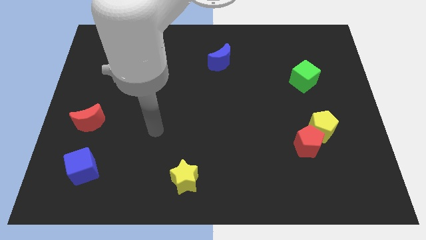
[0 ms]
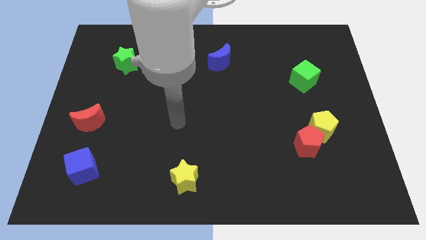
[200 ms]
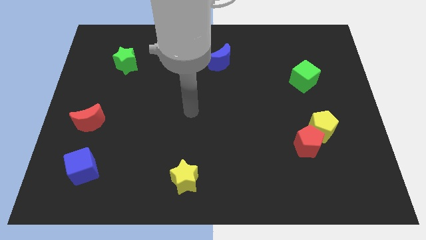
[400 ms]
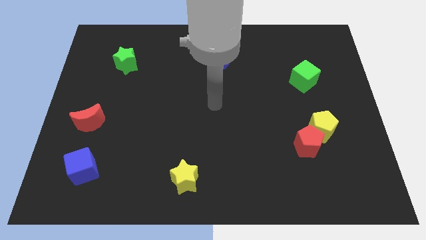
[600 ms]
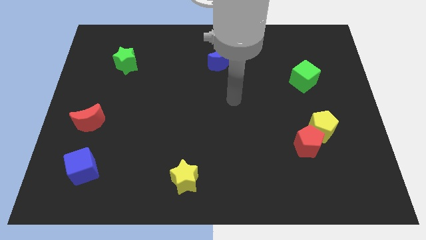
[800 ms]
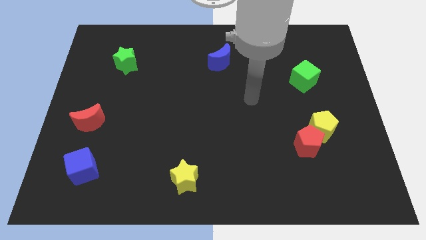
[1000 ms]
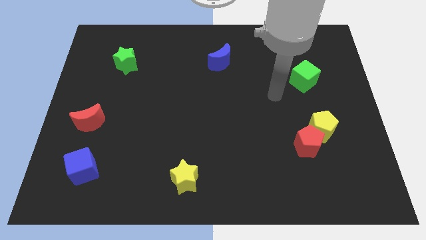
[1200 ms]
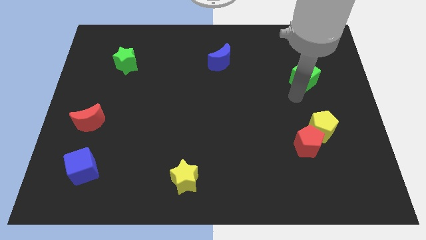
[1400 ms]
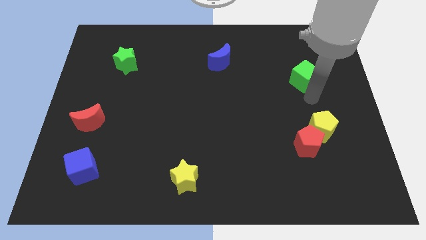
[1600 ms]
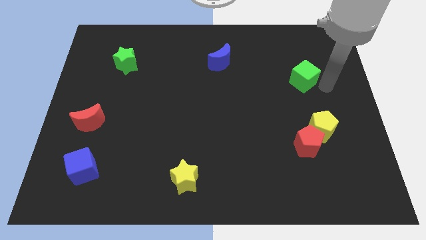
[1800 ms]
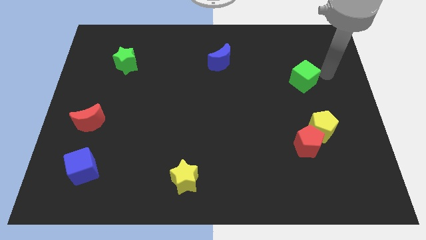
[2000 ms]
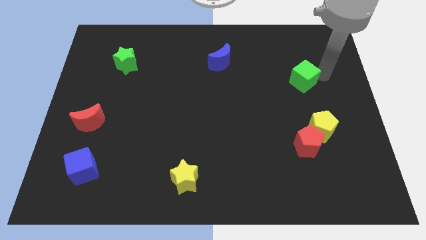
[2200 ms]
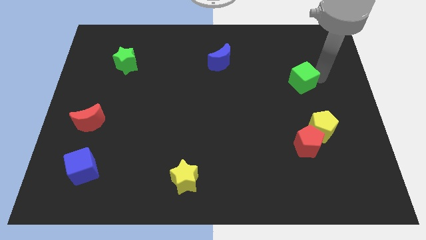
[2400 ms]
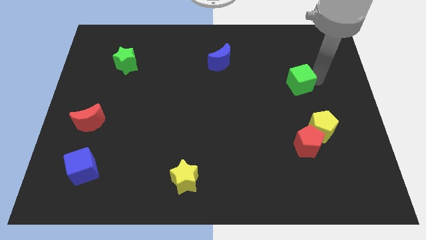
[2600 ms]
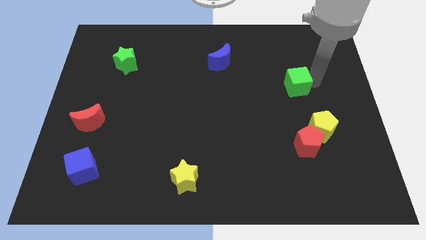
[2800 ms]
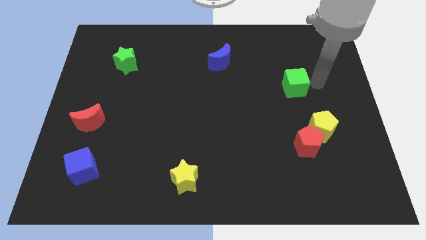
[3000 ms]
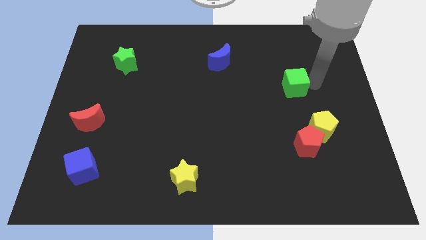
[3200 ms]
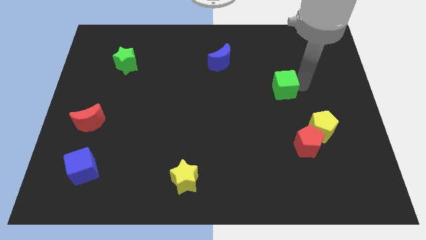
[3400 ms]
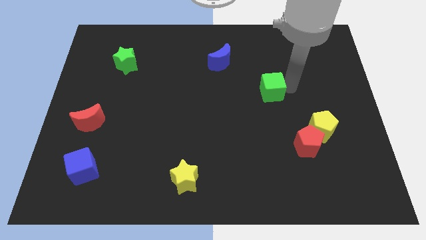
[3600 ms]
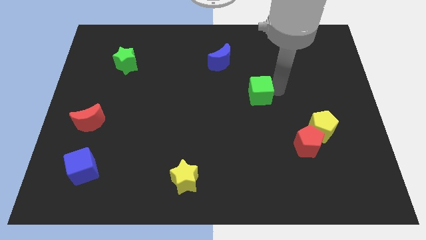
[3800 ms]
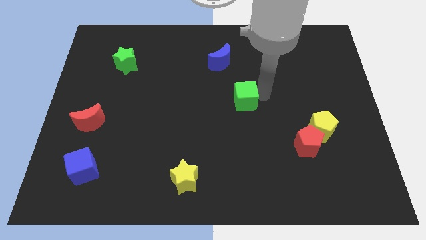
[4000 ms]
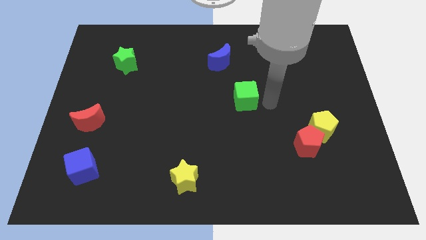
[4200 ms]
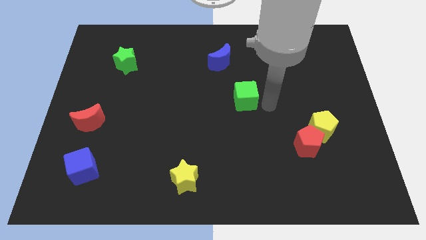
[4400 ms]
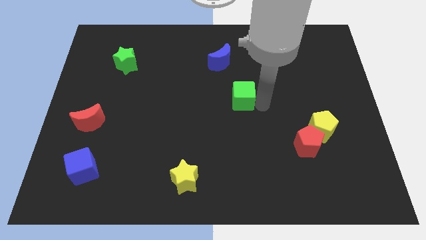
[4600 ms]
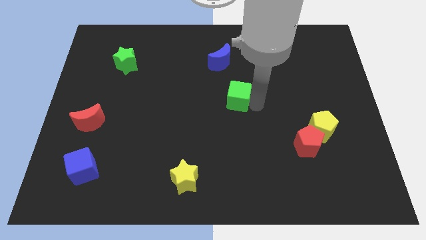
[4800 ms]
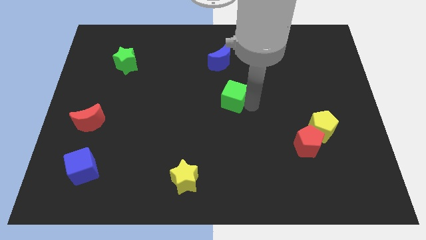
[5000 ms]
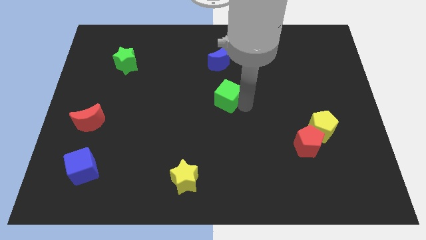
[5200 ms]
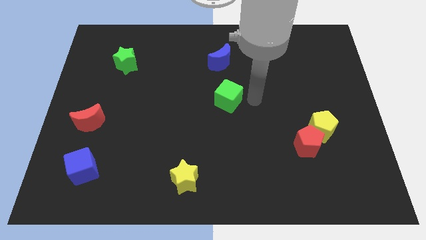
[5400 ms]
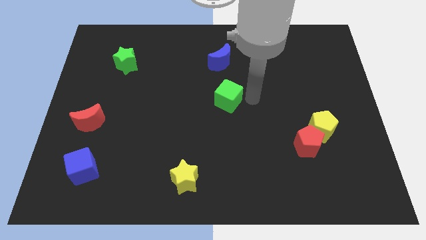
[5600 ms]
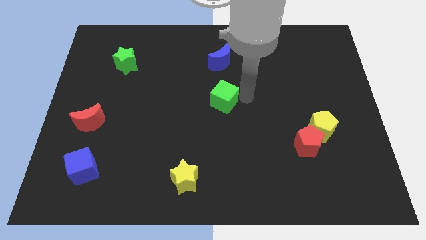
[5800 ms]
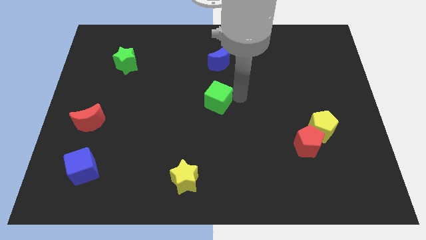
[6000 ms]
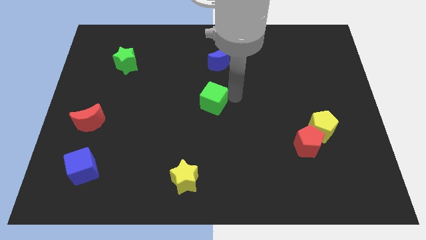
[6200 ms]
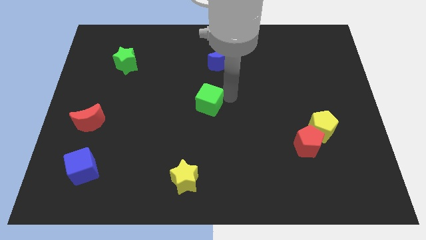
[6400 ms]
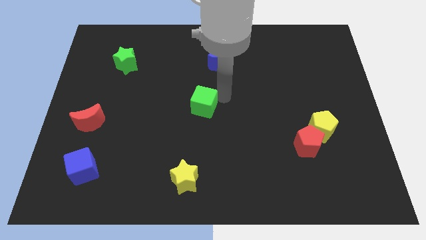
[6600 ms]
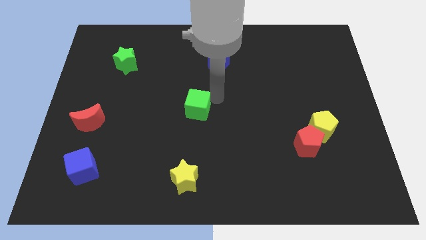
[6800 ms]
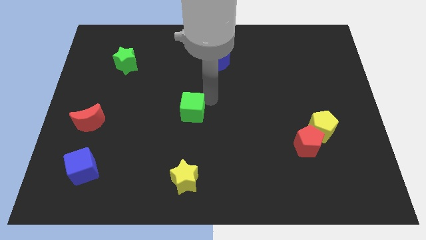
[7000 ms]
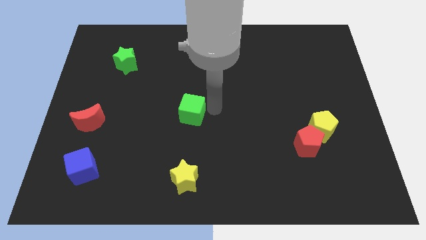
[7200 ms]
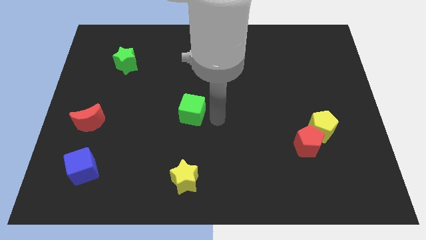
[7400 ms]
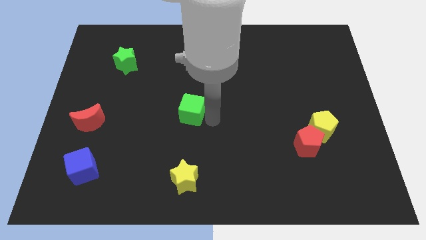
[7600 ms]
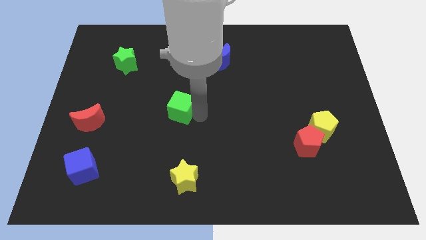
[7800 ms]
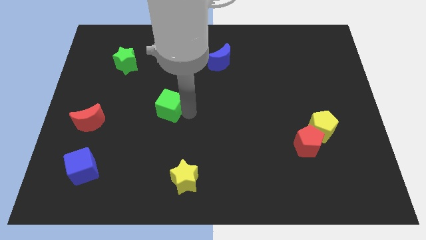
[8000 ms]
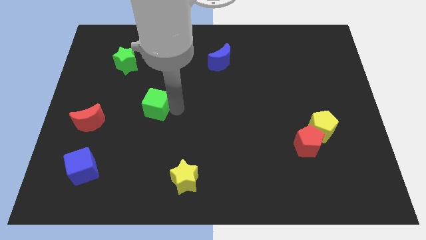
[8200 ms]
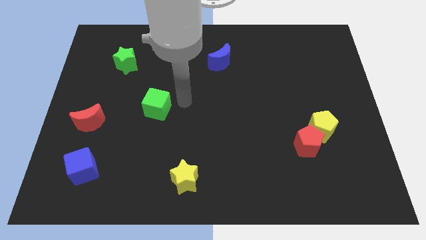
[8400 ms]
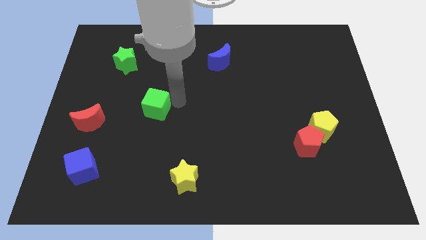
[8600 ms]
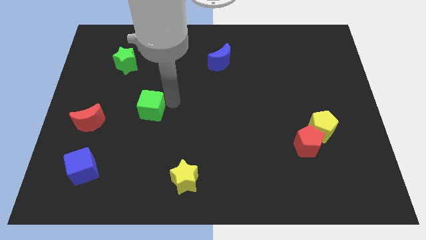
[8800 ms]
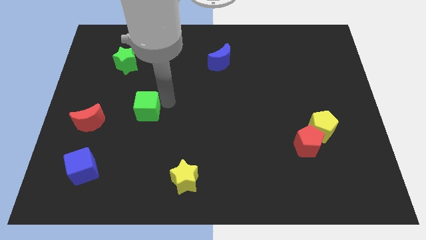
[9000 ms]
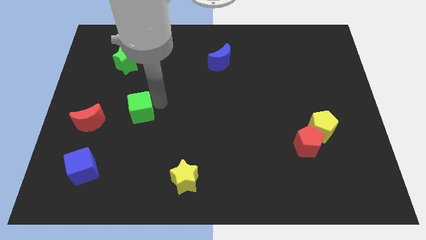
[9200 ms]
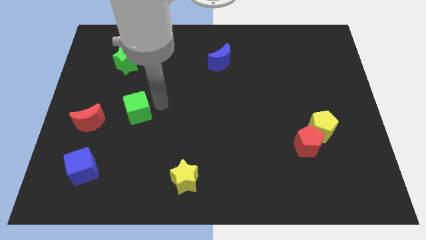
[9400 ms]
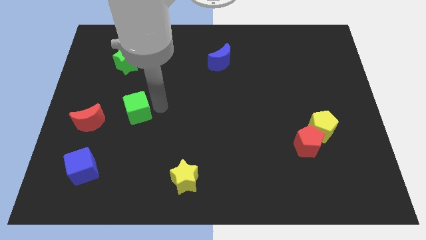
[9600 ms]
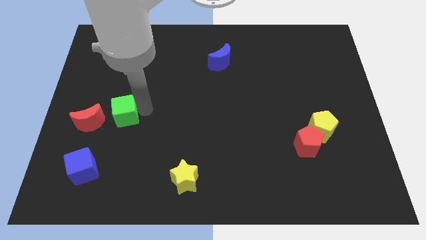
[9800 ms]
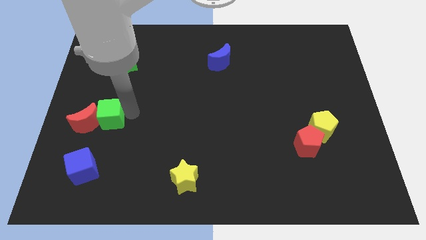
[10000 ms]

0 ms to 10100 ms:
move the green cube to the red moon

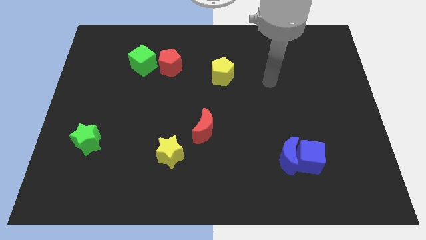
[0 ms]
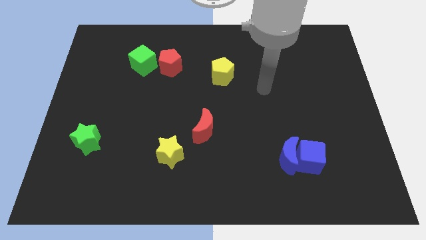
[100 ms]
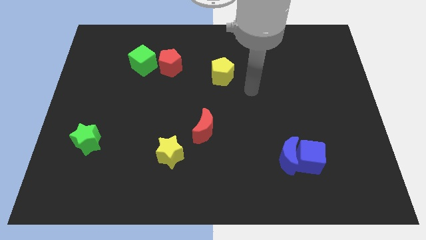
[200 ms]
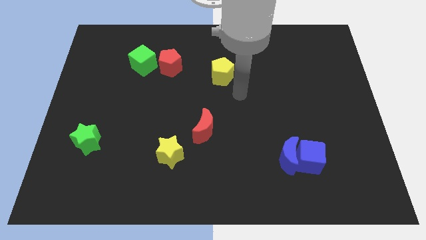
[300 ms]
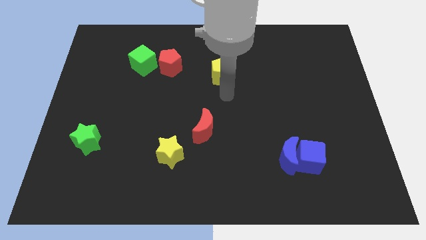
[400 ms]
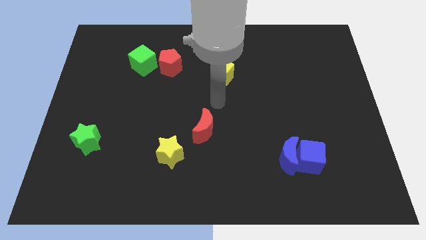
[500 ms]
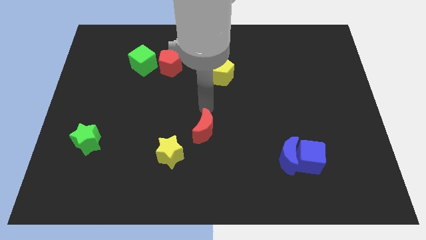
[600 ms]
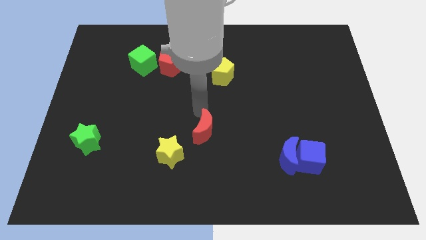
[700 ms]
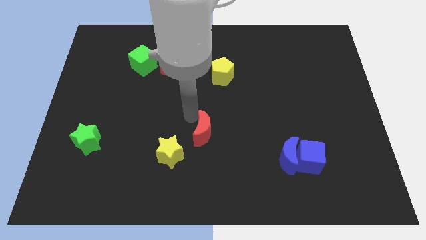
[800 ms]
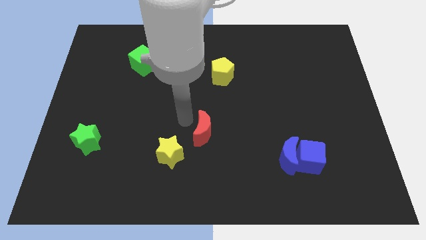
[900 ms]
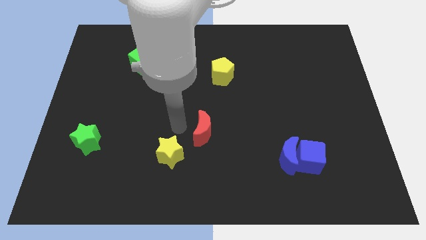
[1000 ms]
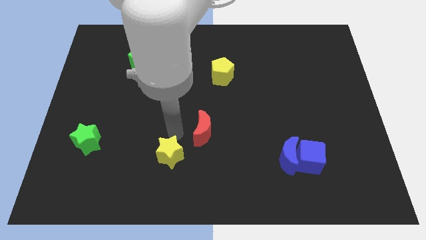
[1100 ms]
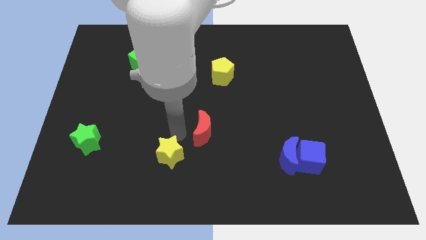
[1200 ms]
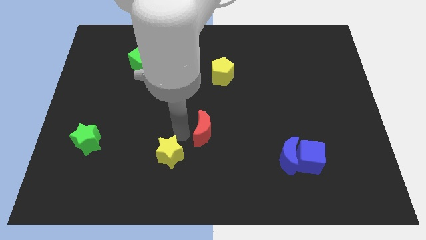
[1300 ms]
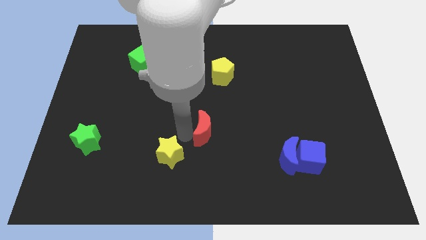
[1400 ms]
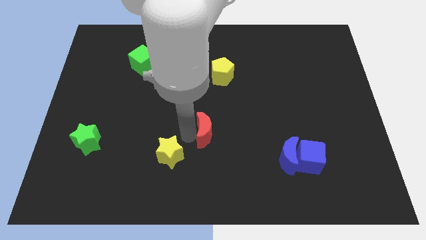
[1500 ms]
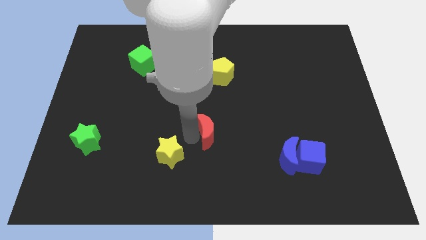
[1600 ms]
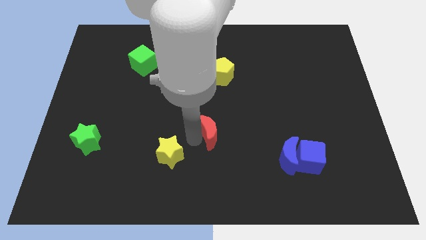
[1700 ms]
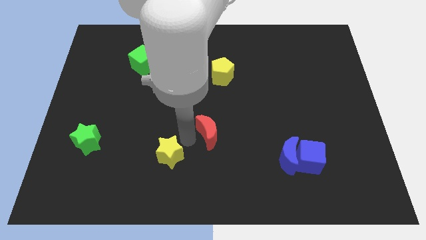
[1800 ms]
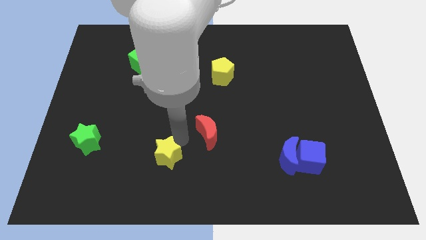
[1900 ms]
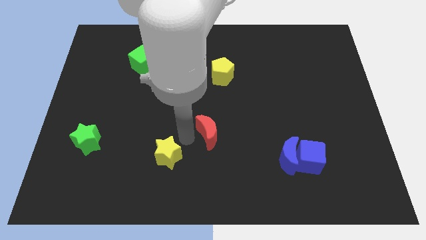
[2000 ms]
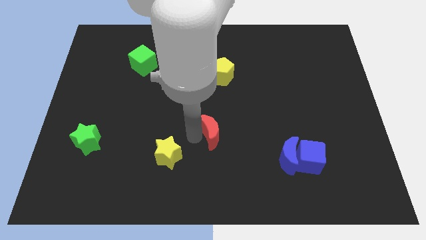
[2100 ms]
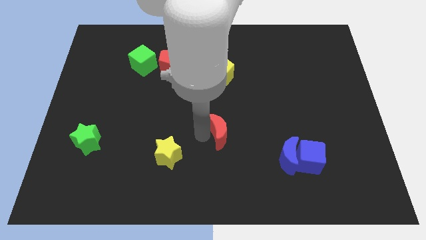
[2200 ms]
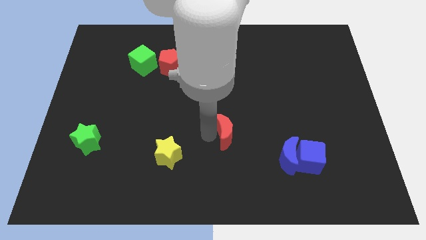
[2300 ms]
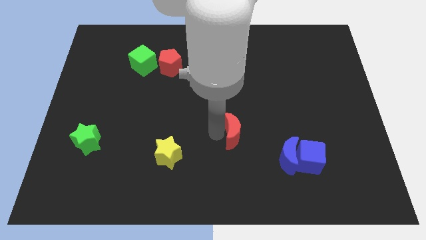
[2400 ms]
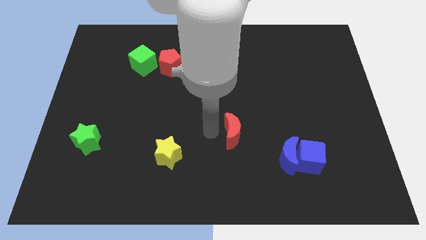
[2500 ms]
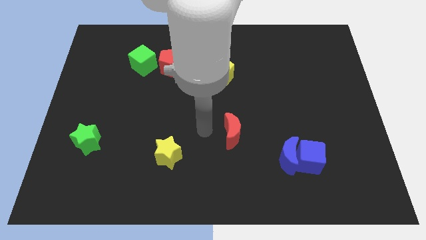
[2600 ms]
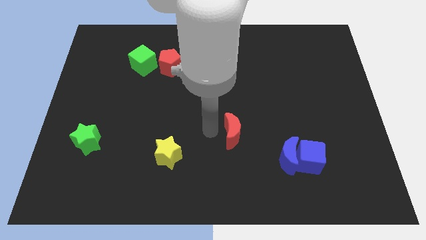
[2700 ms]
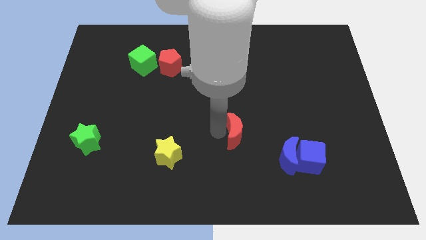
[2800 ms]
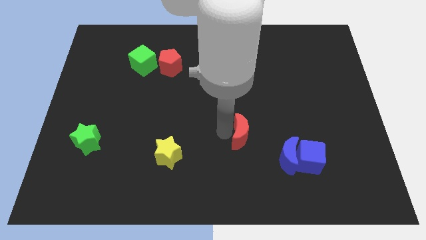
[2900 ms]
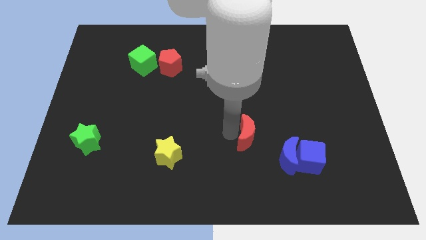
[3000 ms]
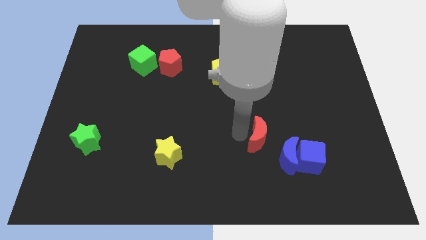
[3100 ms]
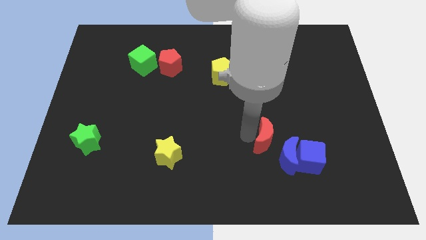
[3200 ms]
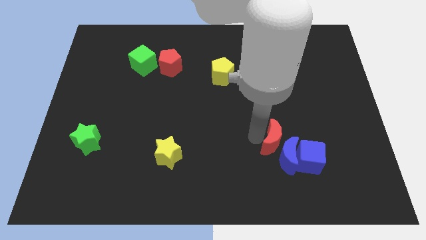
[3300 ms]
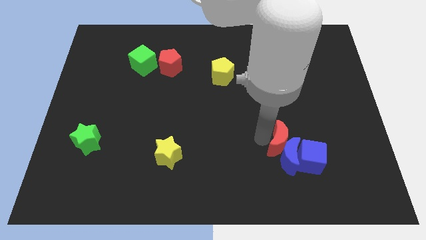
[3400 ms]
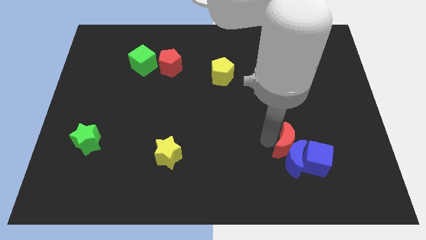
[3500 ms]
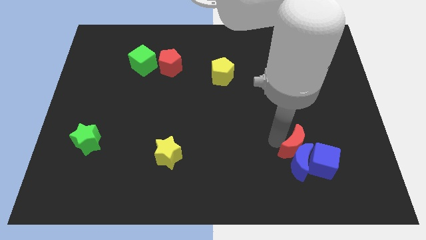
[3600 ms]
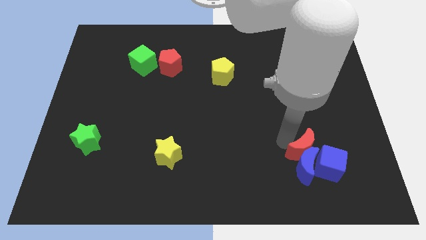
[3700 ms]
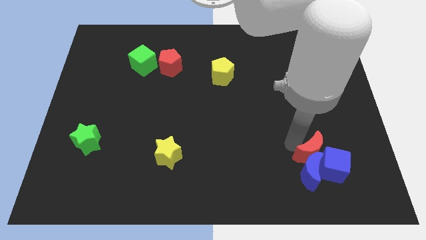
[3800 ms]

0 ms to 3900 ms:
put the red moon next to the blue cube
